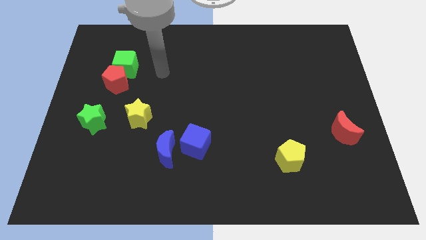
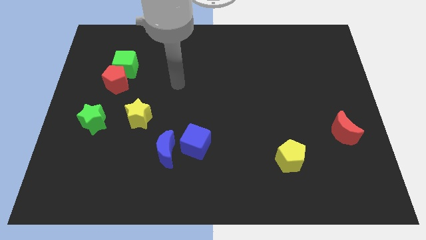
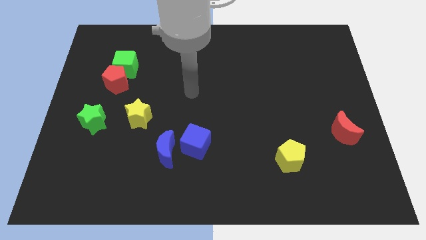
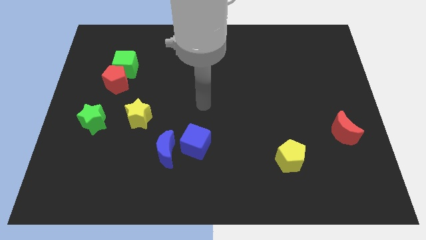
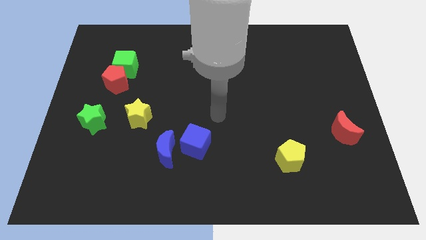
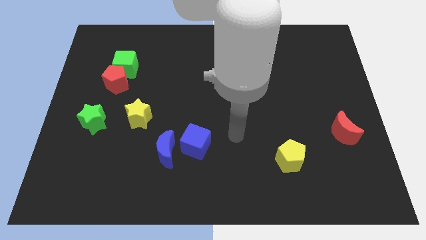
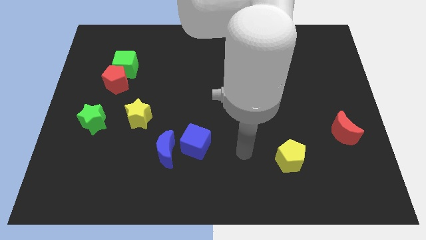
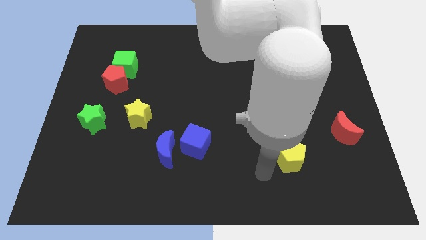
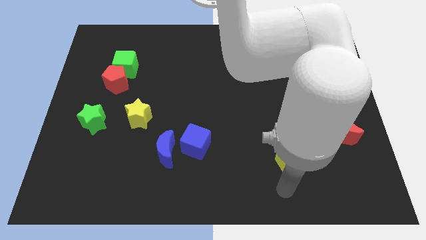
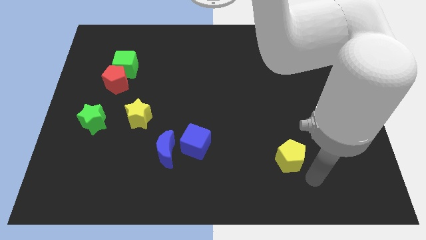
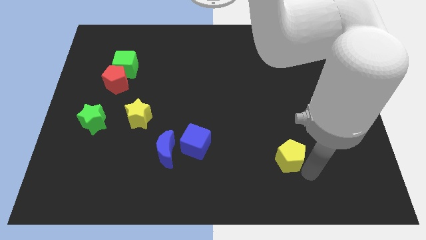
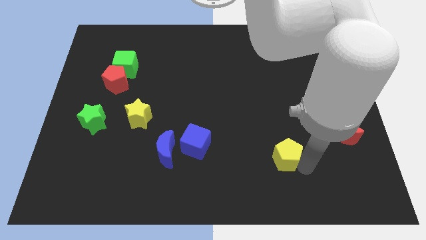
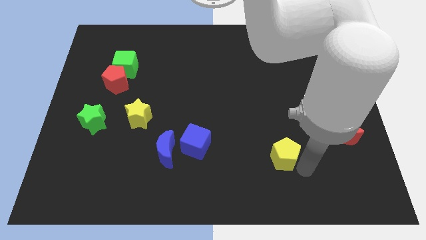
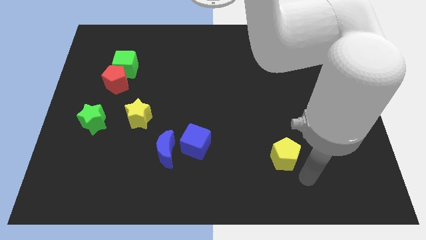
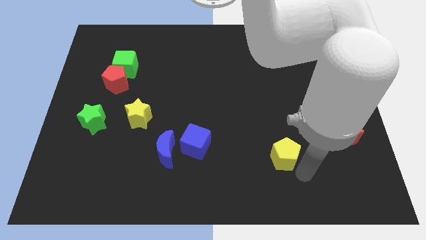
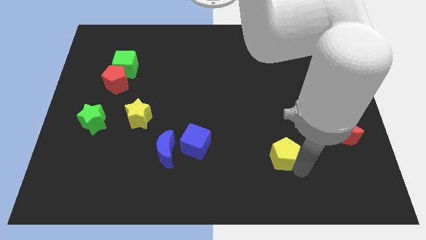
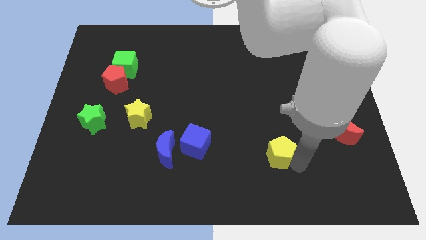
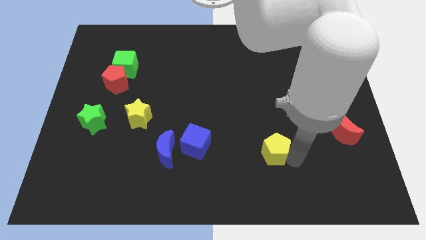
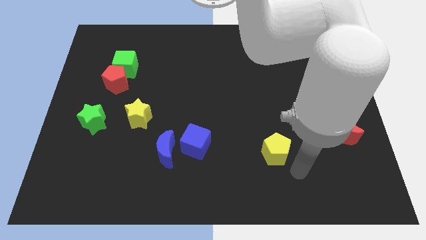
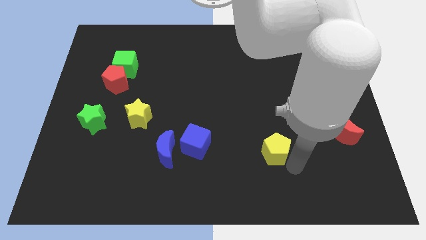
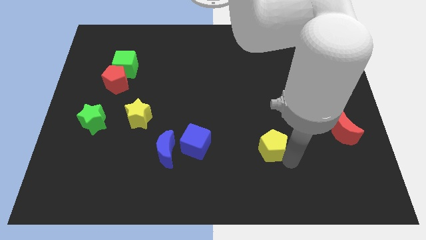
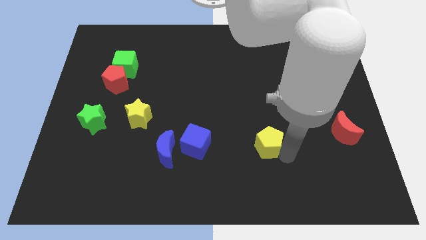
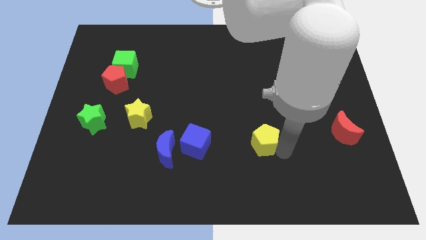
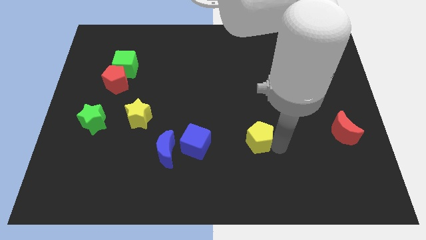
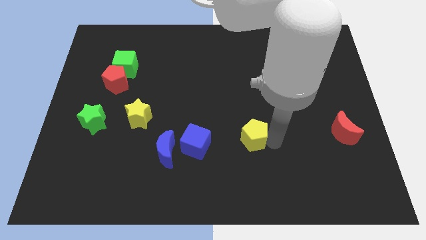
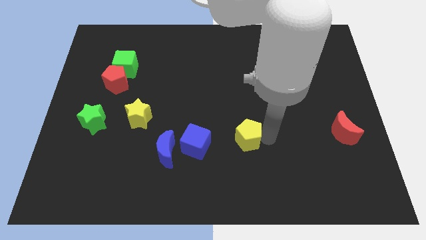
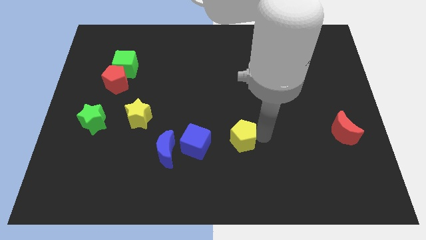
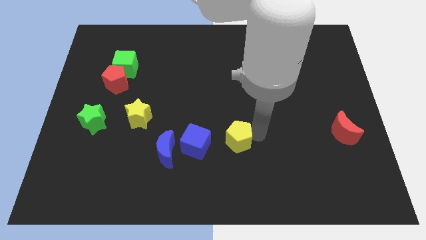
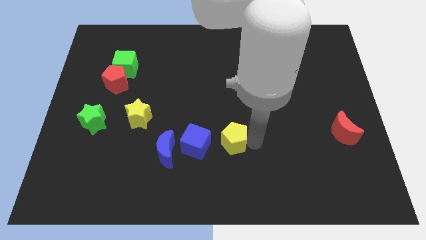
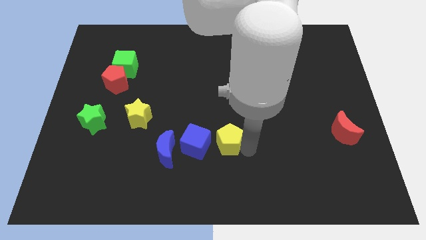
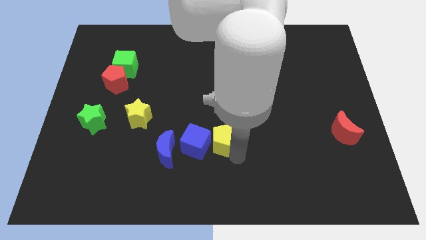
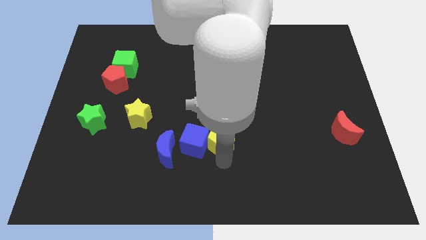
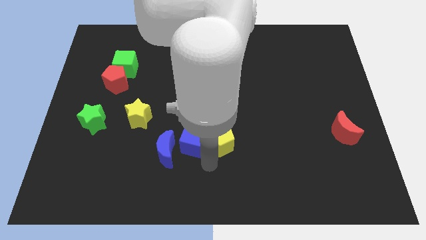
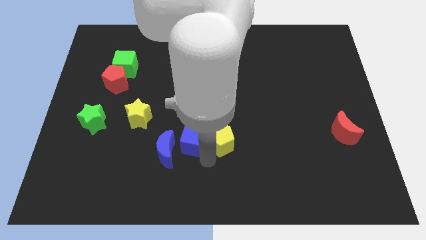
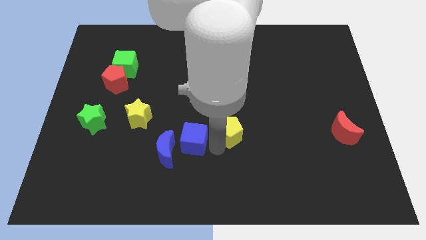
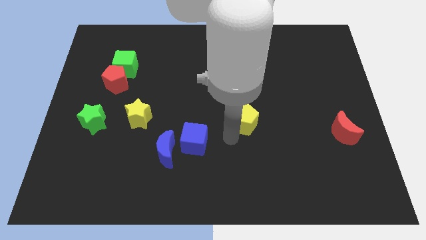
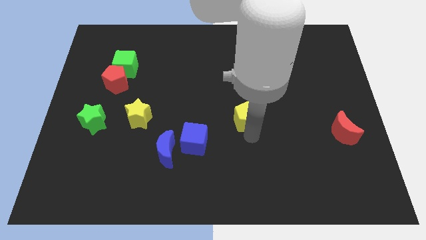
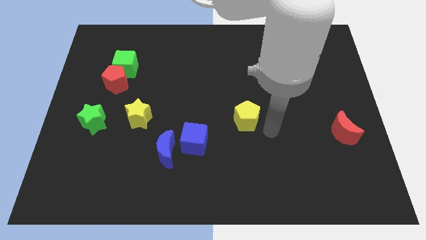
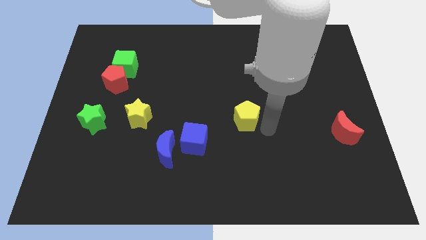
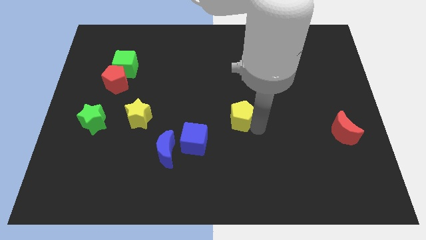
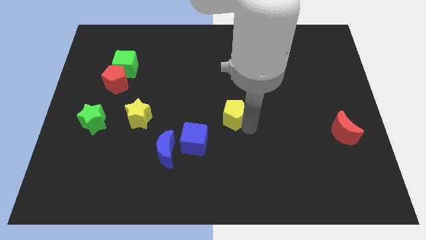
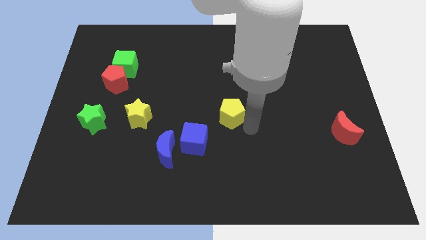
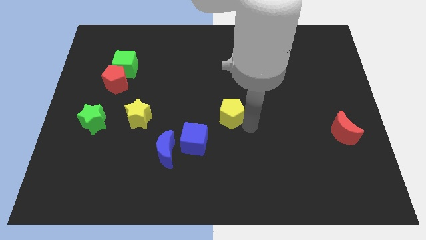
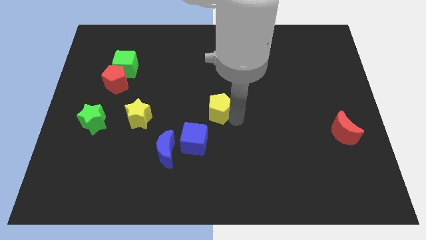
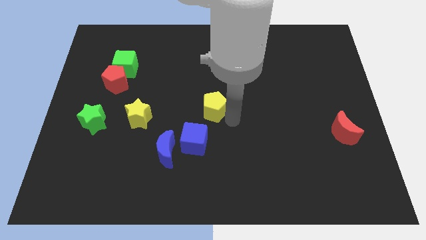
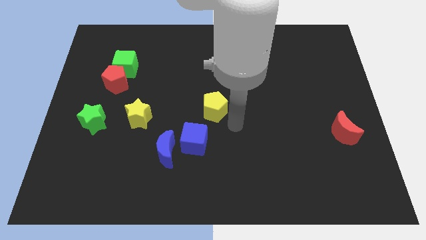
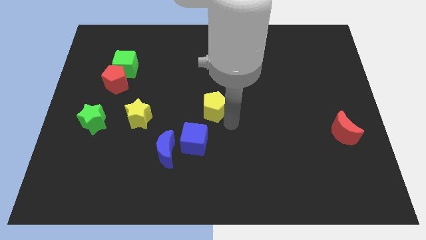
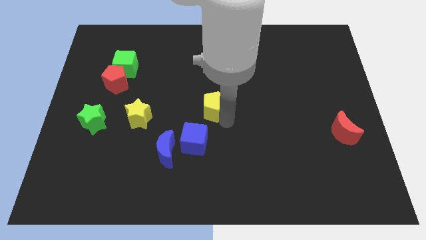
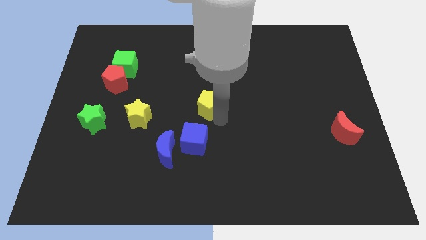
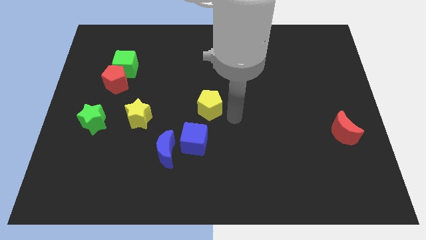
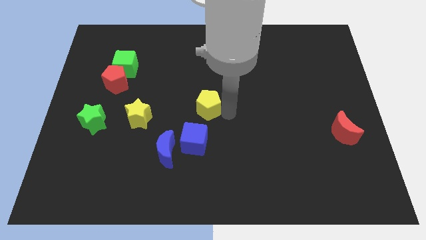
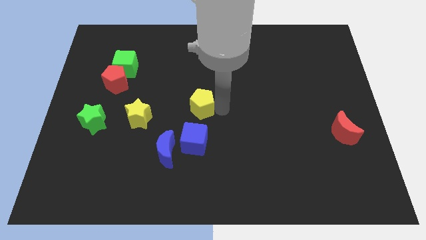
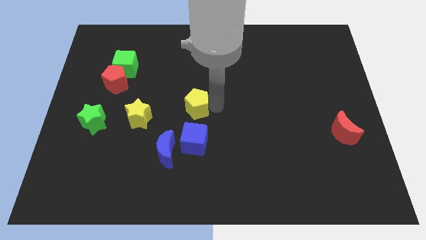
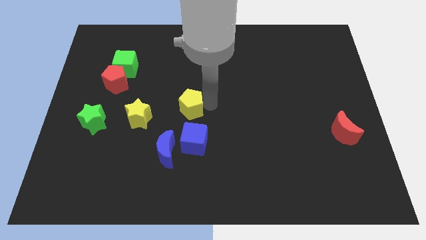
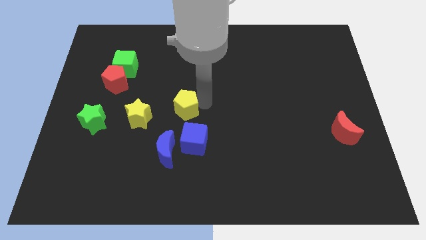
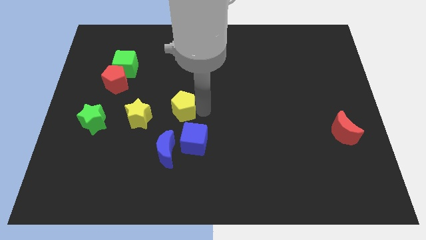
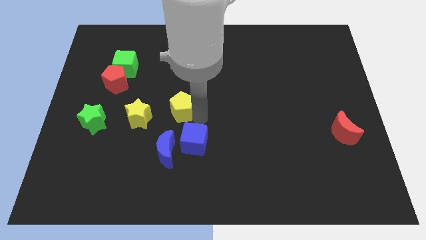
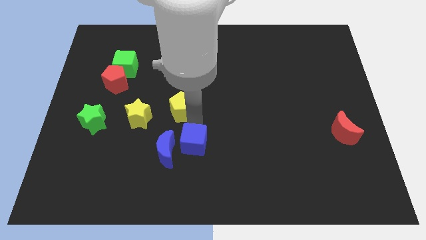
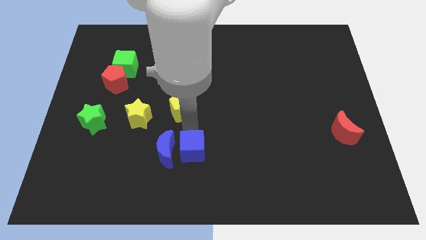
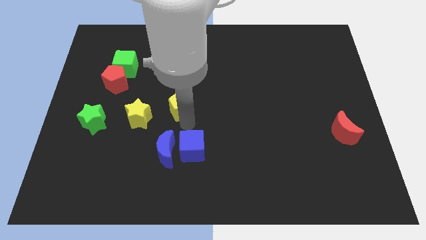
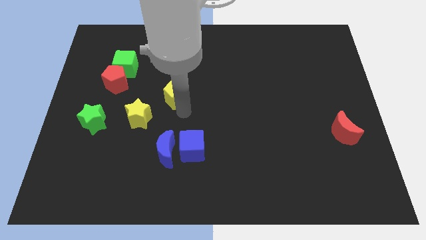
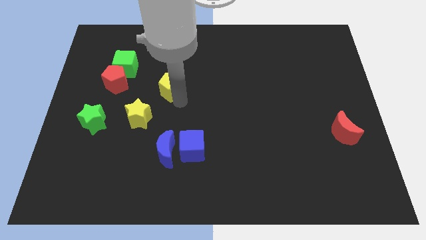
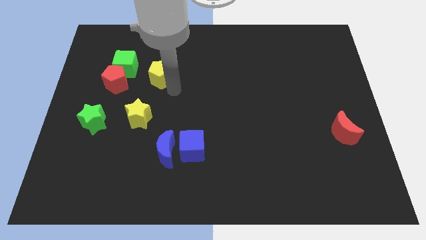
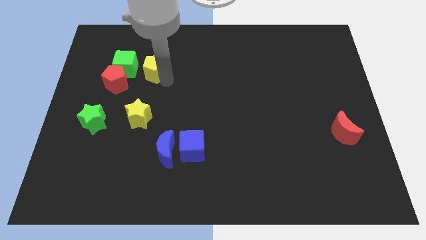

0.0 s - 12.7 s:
slide the yellow pentagon to the top right of the red pentagon
